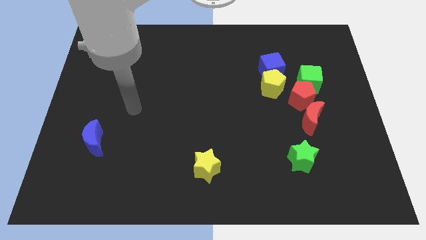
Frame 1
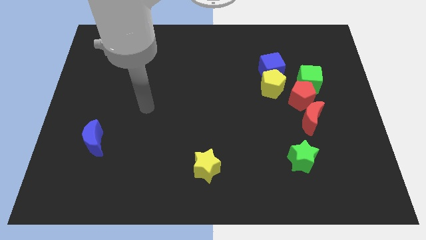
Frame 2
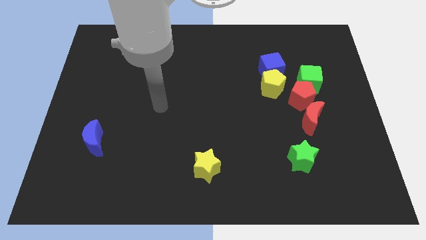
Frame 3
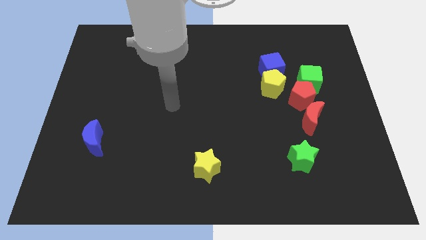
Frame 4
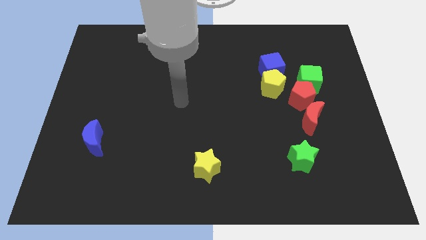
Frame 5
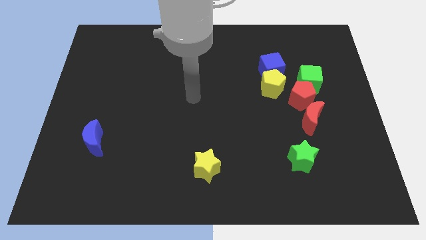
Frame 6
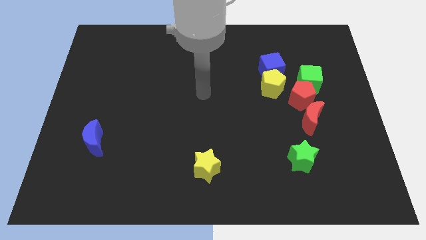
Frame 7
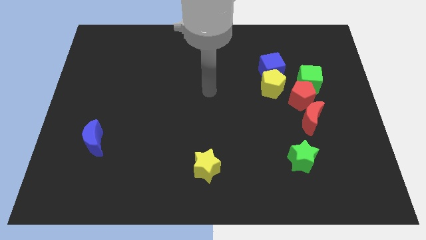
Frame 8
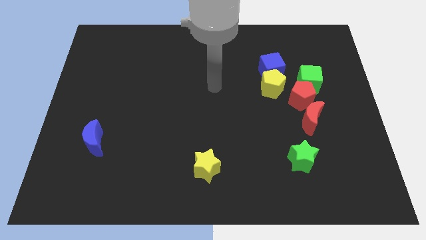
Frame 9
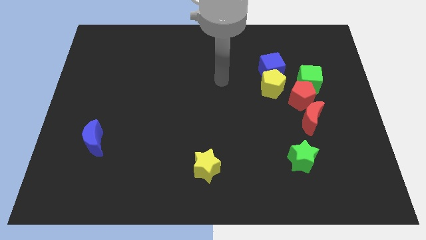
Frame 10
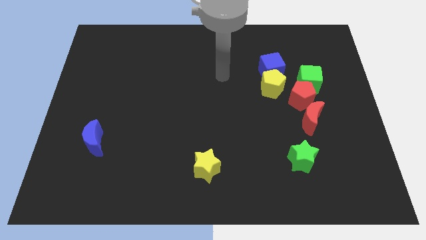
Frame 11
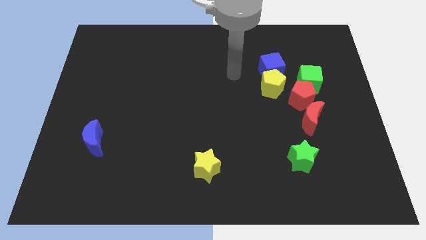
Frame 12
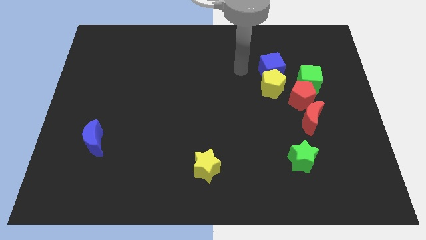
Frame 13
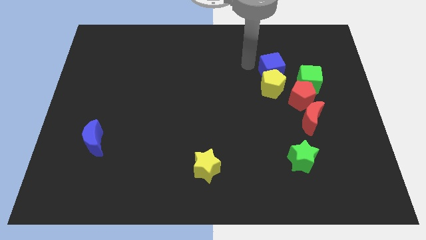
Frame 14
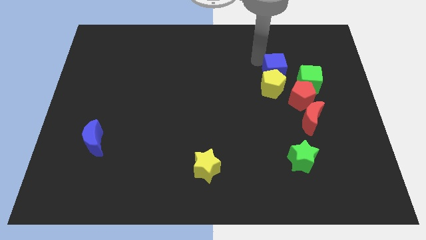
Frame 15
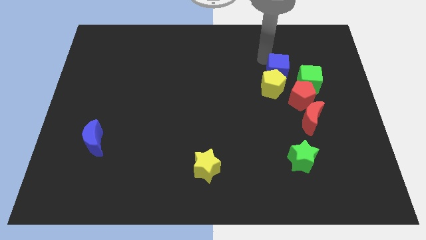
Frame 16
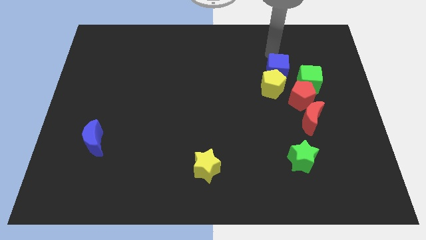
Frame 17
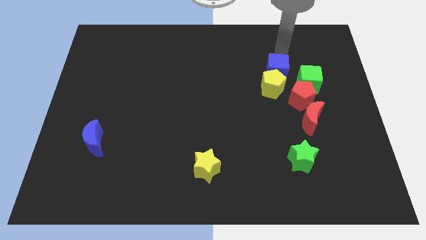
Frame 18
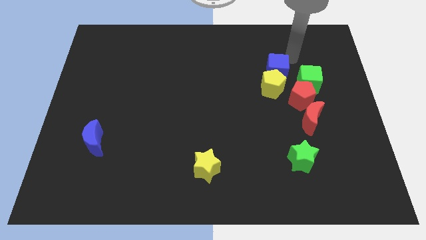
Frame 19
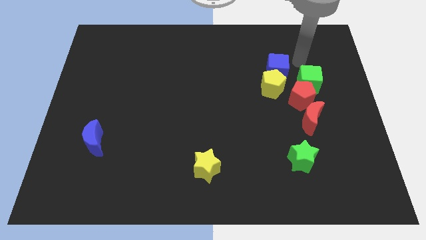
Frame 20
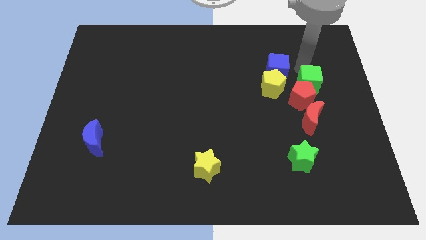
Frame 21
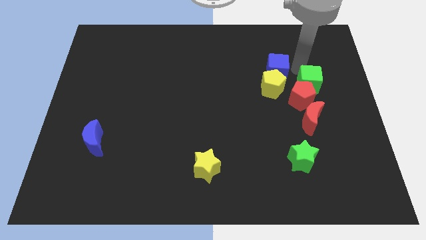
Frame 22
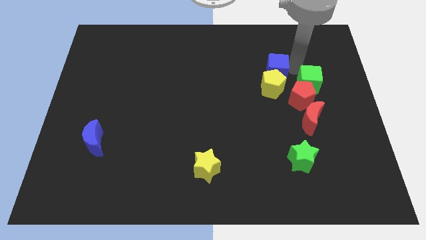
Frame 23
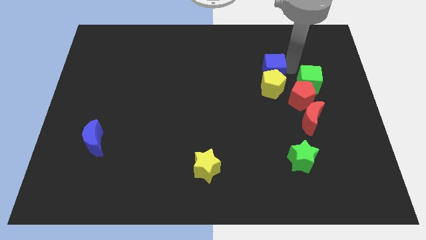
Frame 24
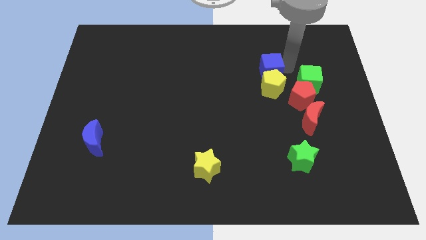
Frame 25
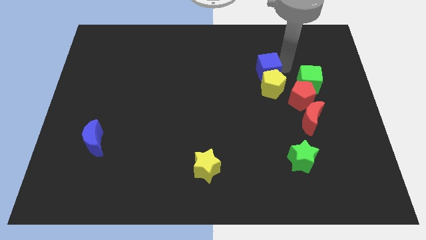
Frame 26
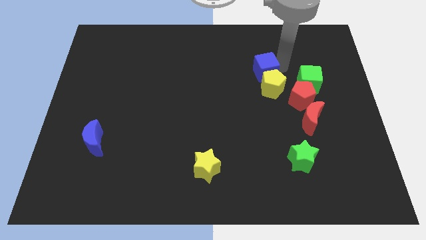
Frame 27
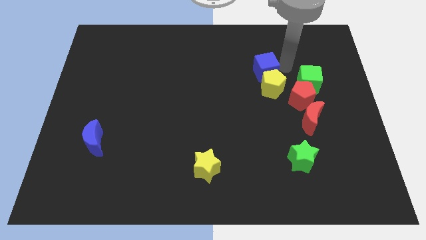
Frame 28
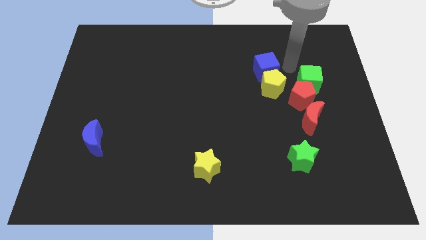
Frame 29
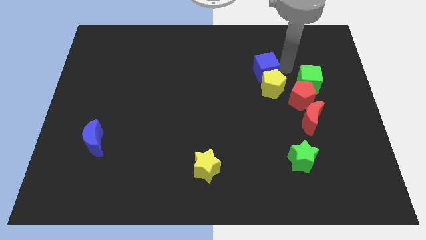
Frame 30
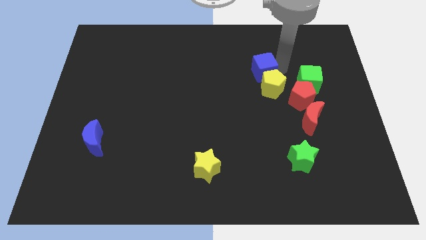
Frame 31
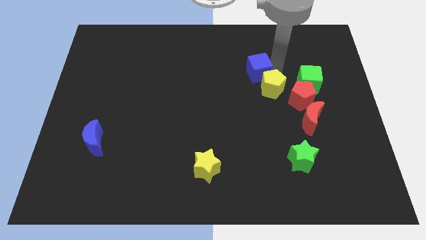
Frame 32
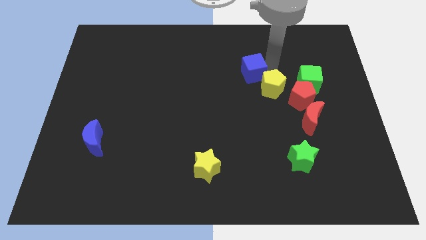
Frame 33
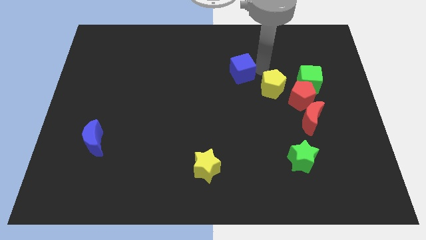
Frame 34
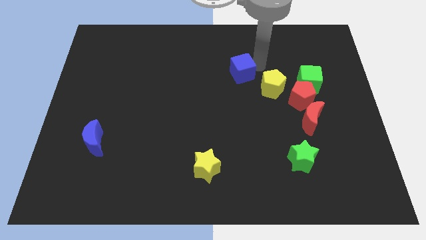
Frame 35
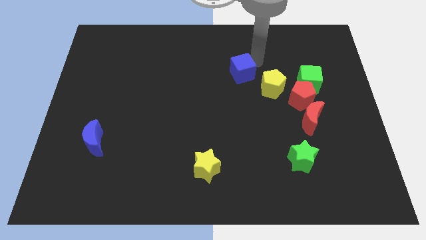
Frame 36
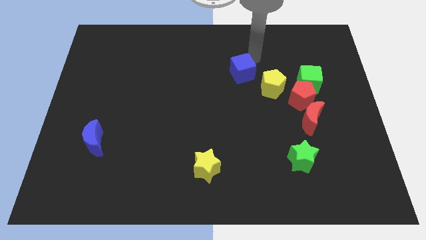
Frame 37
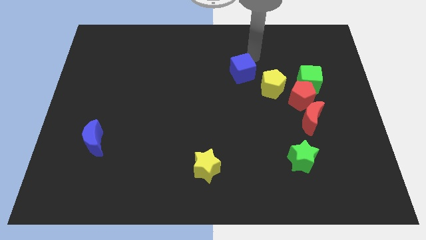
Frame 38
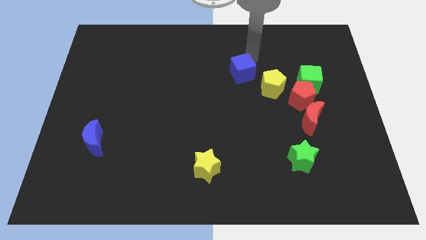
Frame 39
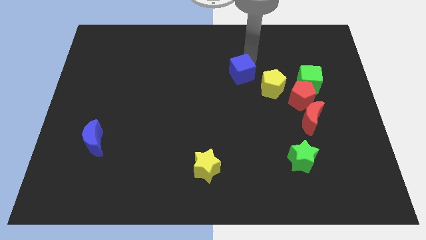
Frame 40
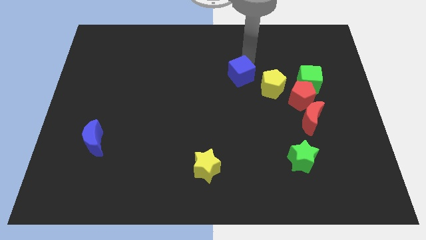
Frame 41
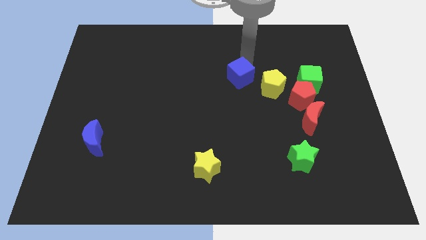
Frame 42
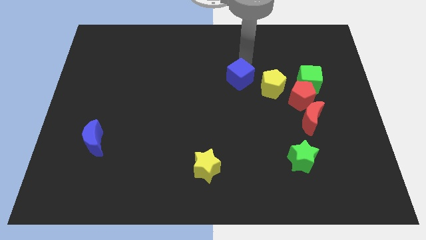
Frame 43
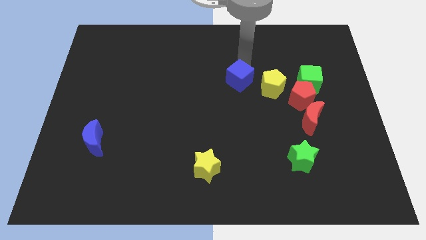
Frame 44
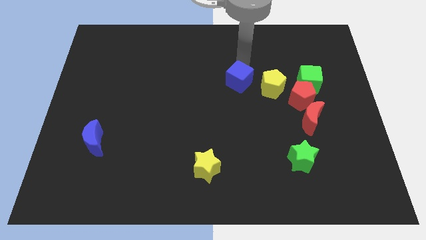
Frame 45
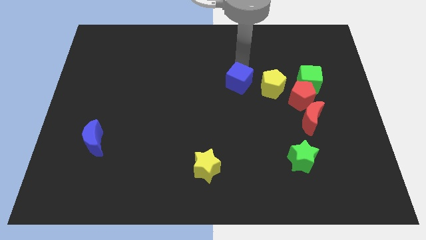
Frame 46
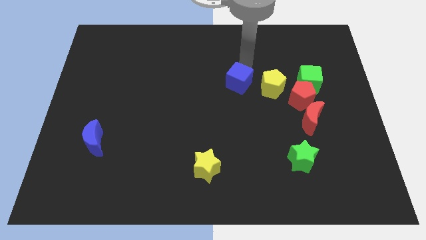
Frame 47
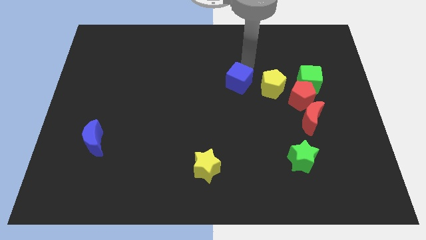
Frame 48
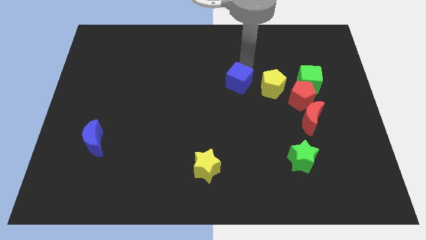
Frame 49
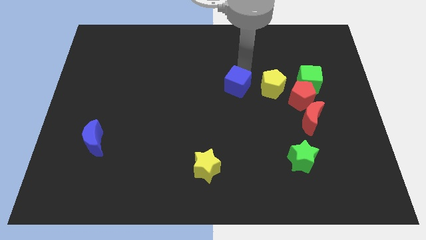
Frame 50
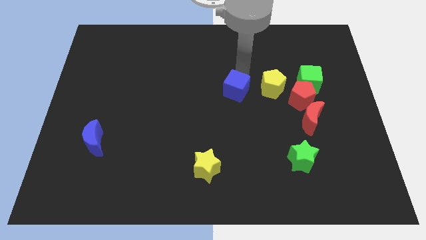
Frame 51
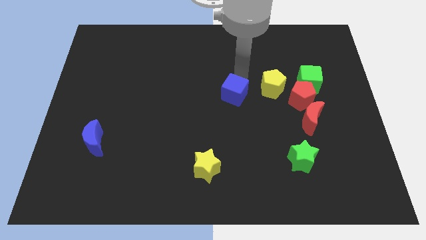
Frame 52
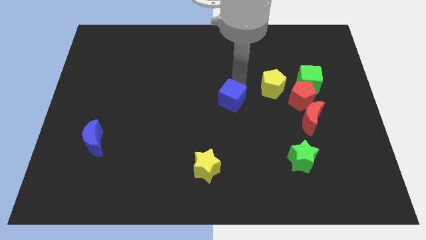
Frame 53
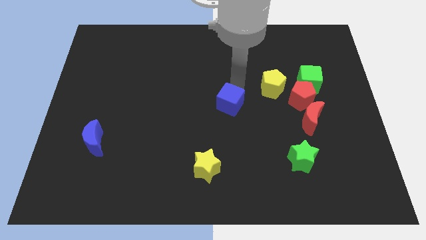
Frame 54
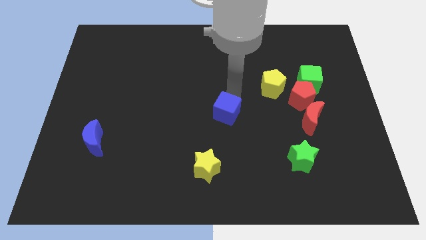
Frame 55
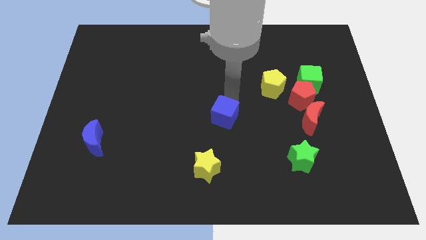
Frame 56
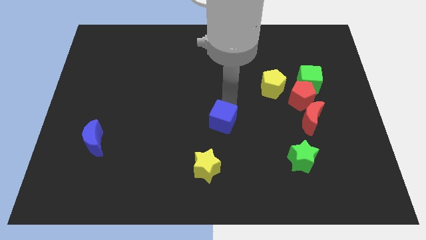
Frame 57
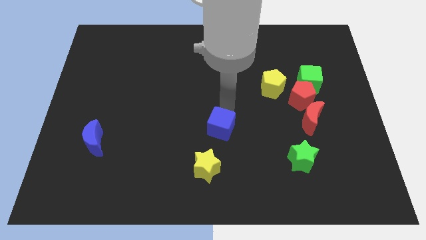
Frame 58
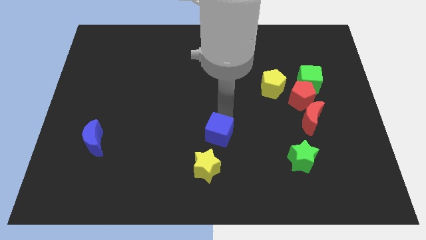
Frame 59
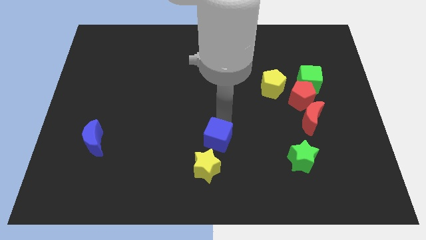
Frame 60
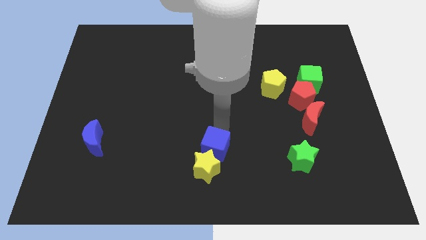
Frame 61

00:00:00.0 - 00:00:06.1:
slide the blue cube next to the yellow star
